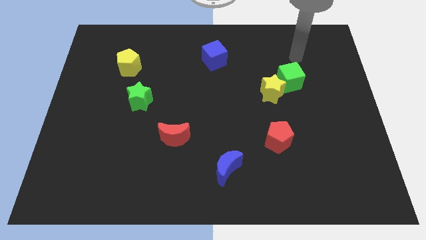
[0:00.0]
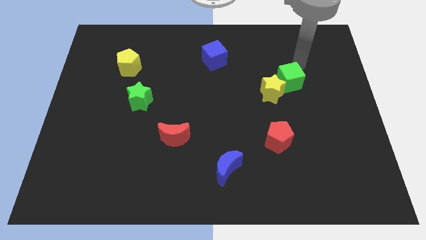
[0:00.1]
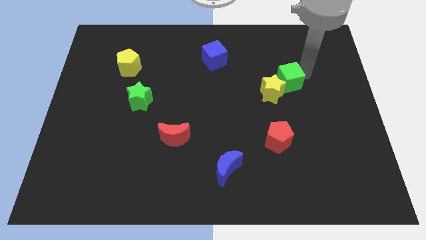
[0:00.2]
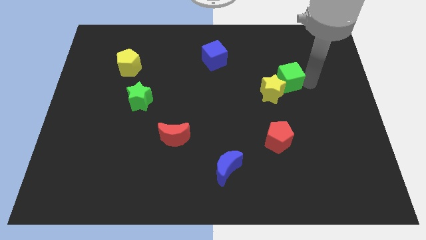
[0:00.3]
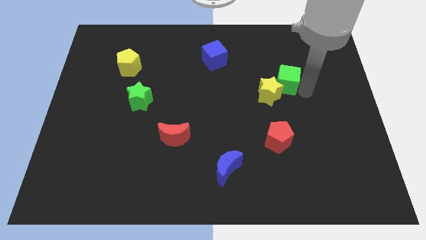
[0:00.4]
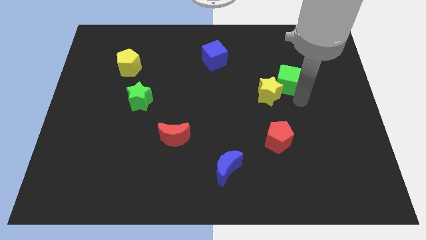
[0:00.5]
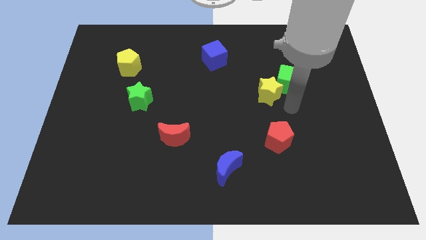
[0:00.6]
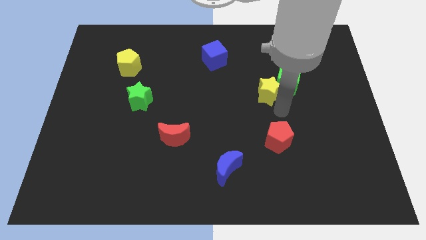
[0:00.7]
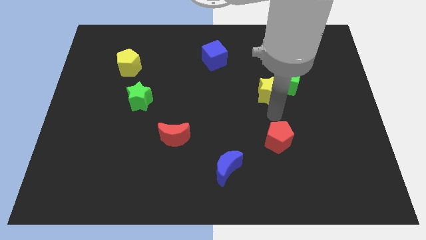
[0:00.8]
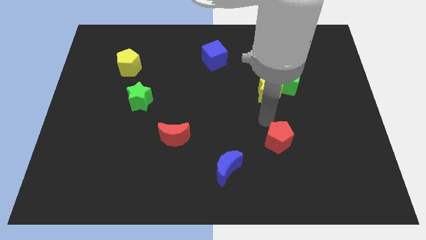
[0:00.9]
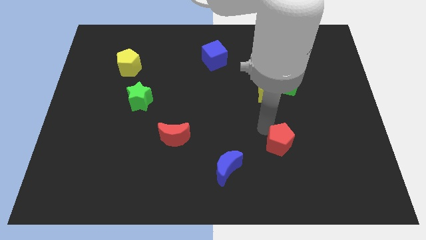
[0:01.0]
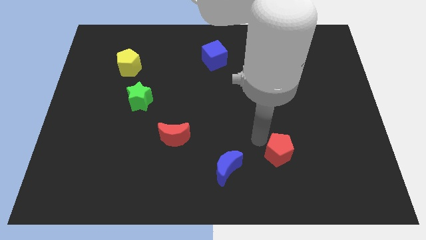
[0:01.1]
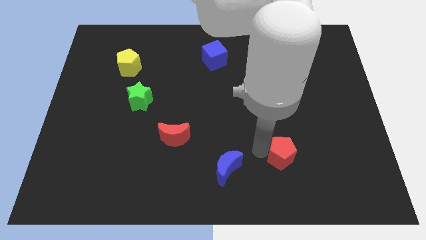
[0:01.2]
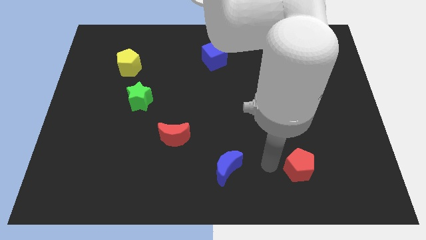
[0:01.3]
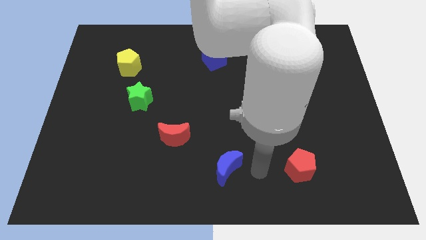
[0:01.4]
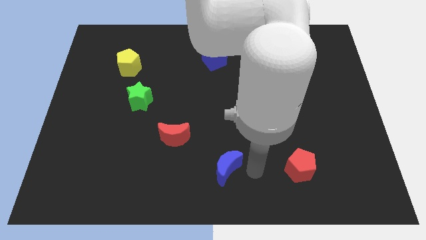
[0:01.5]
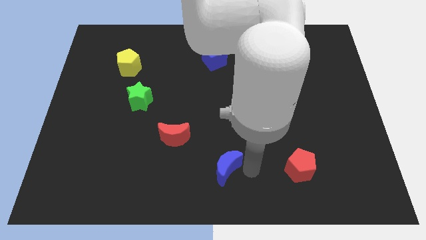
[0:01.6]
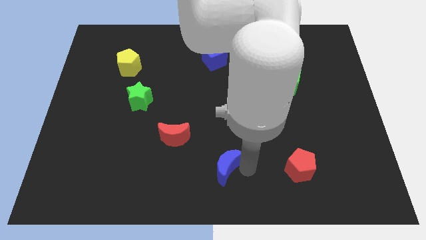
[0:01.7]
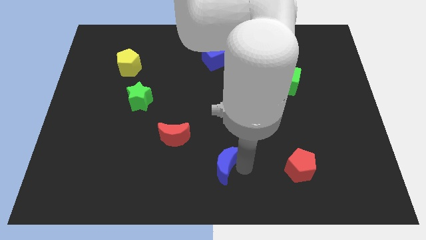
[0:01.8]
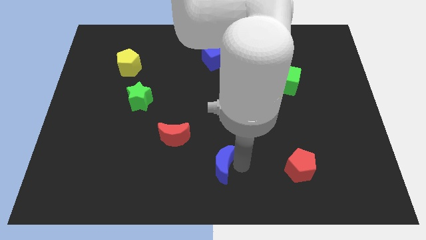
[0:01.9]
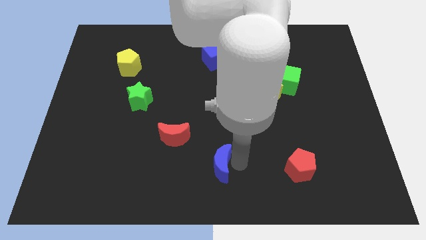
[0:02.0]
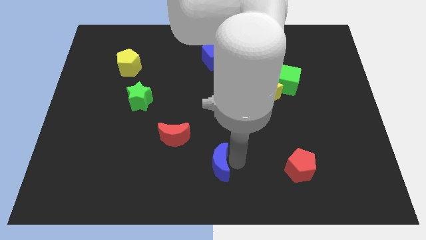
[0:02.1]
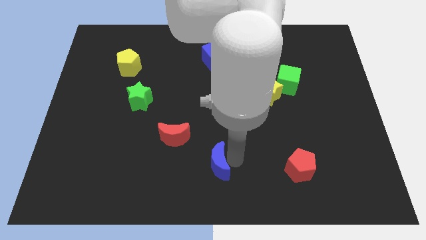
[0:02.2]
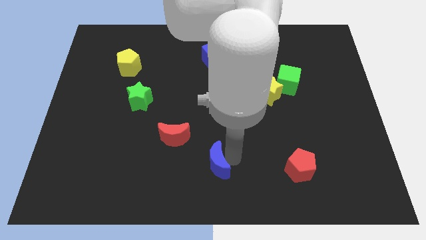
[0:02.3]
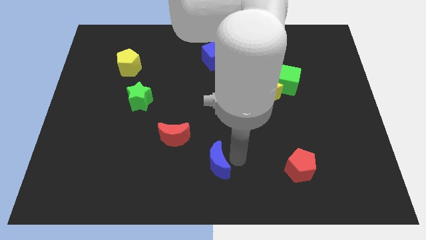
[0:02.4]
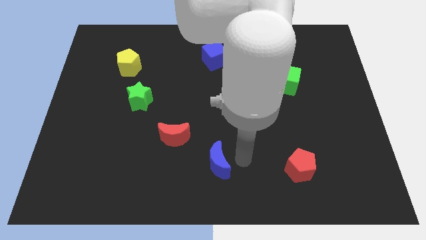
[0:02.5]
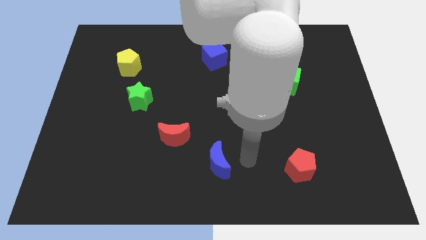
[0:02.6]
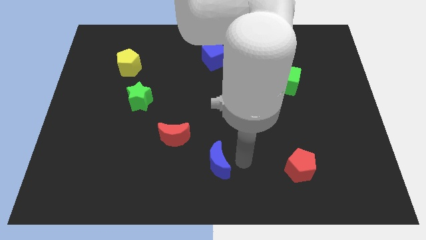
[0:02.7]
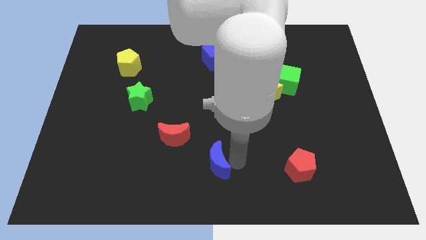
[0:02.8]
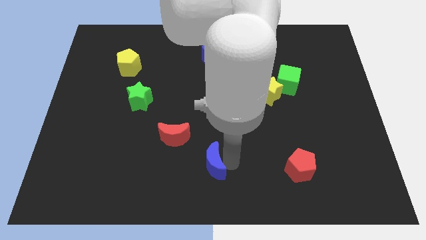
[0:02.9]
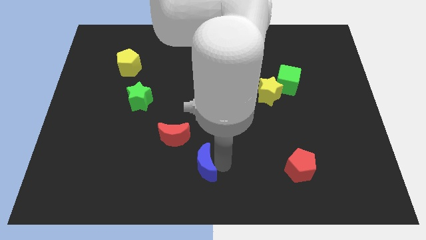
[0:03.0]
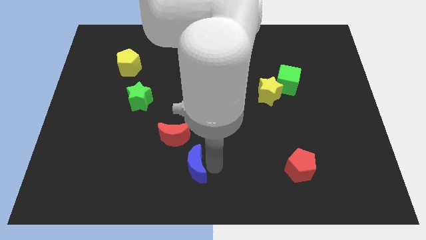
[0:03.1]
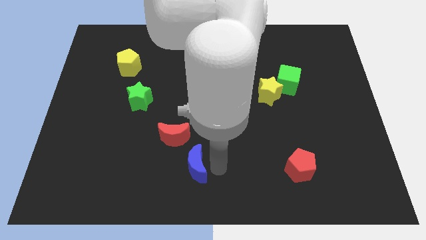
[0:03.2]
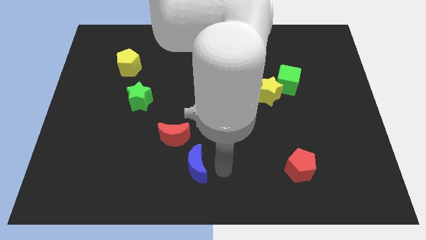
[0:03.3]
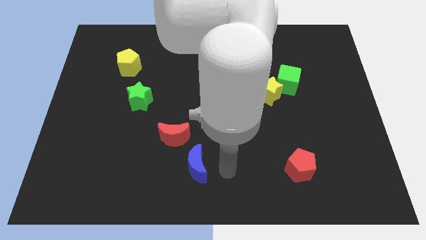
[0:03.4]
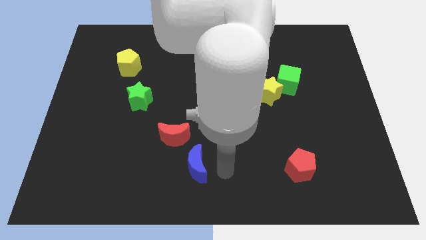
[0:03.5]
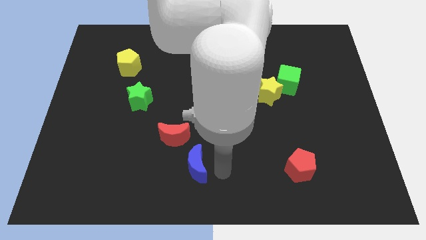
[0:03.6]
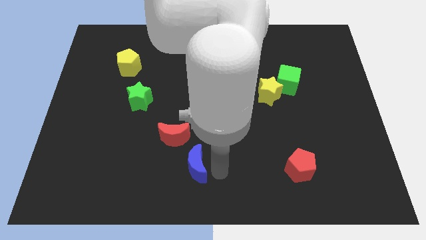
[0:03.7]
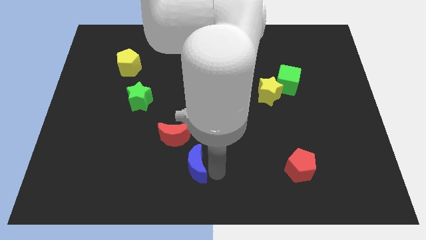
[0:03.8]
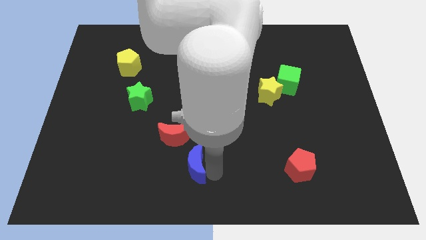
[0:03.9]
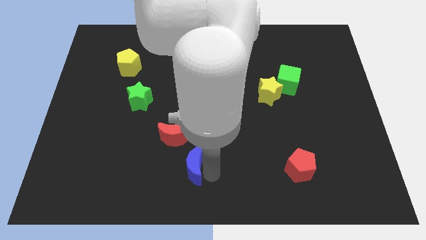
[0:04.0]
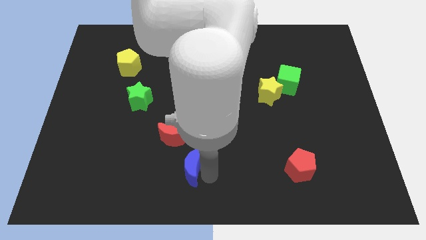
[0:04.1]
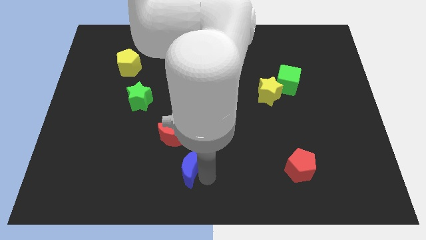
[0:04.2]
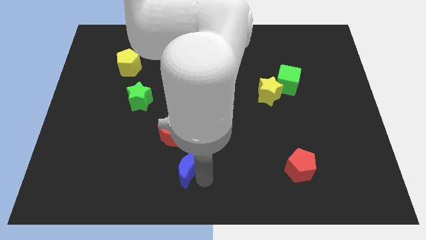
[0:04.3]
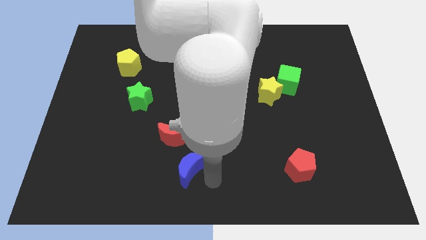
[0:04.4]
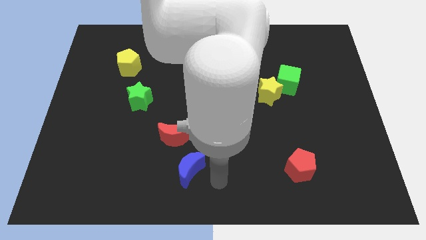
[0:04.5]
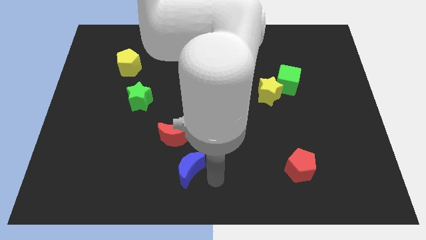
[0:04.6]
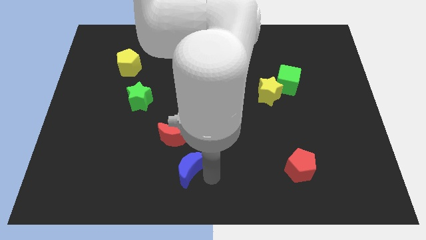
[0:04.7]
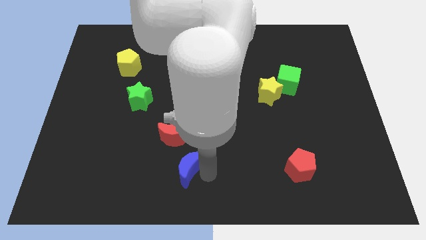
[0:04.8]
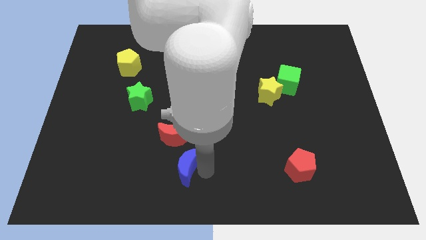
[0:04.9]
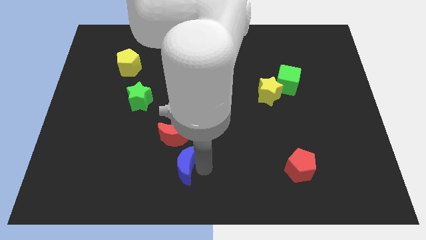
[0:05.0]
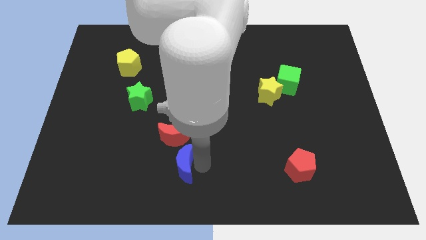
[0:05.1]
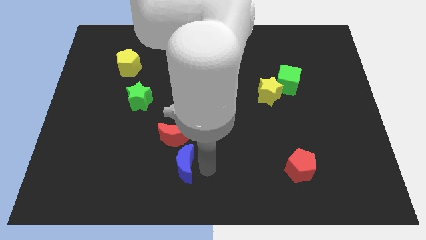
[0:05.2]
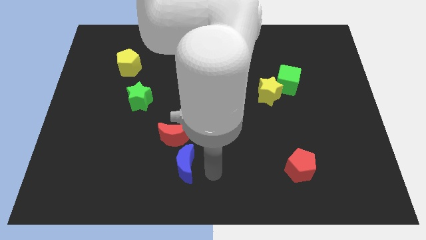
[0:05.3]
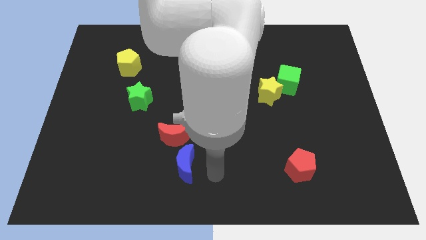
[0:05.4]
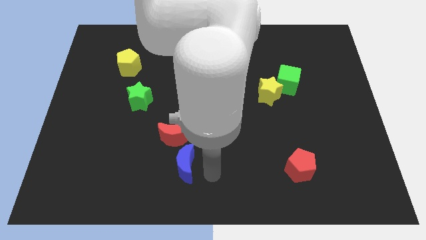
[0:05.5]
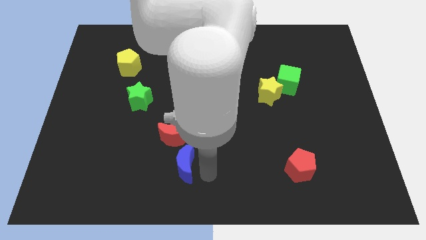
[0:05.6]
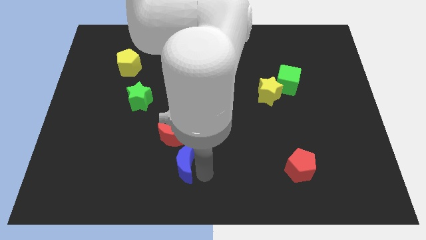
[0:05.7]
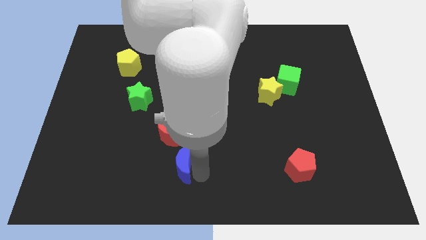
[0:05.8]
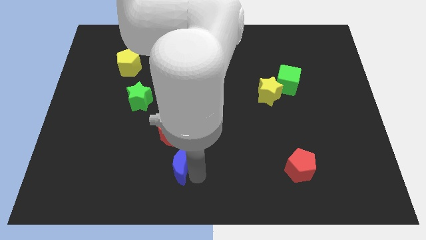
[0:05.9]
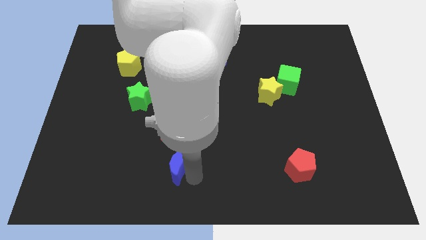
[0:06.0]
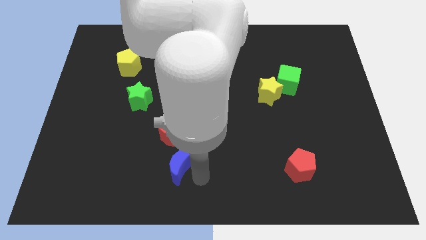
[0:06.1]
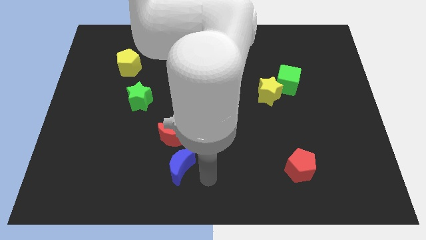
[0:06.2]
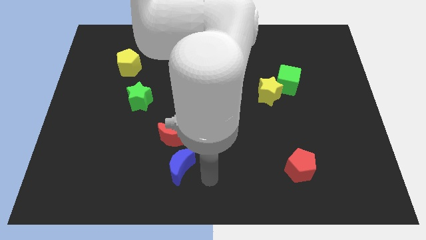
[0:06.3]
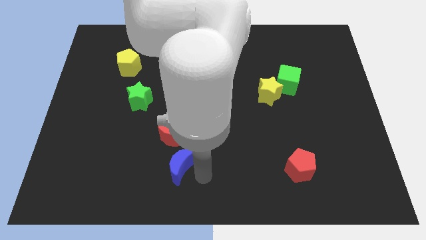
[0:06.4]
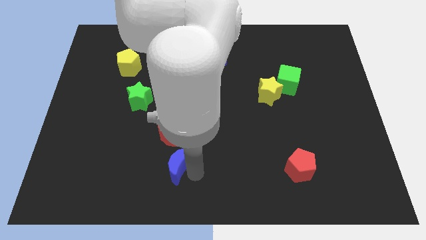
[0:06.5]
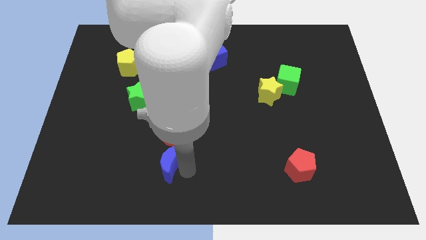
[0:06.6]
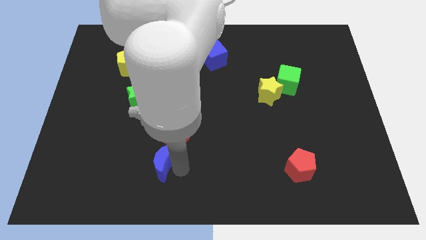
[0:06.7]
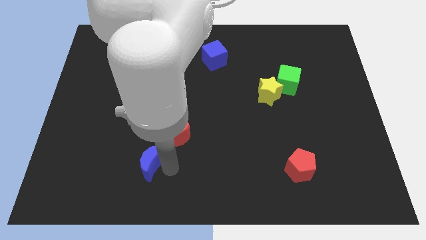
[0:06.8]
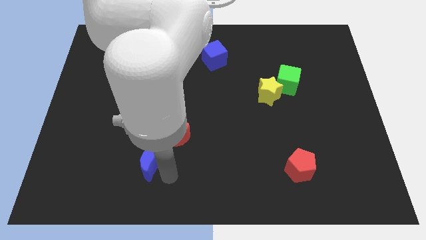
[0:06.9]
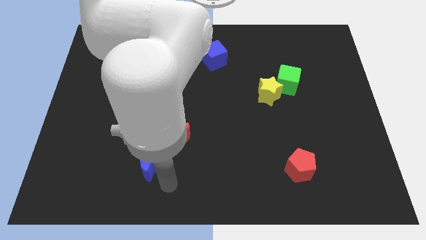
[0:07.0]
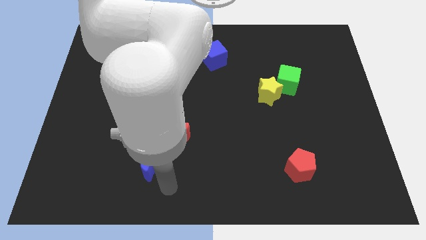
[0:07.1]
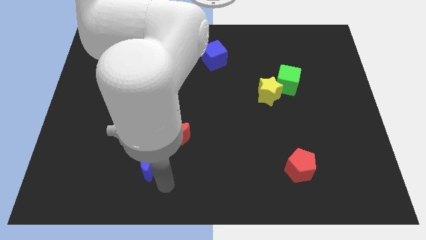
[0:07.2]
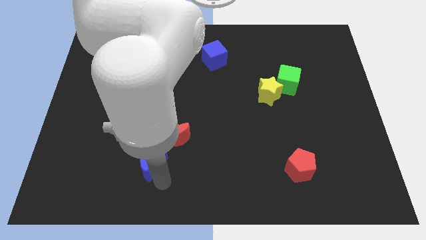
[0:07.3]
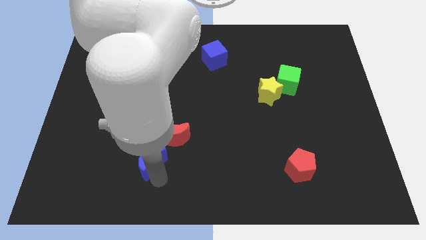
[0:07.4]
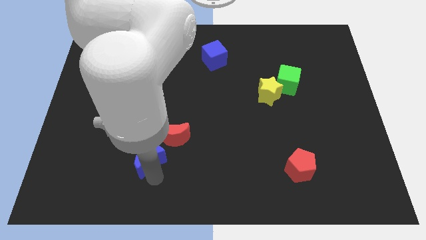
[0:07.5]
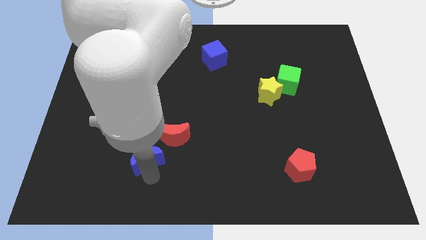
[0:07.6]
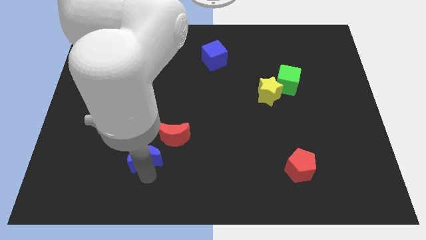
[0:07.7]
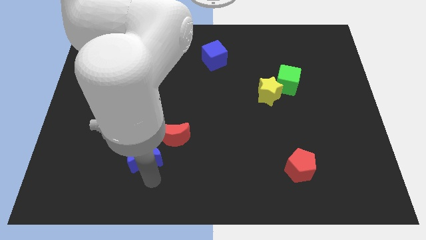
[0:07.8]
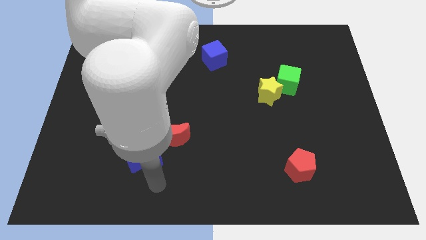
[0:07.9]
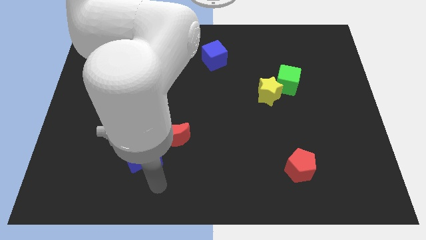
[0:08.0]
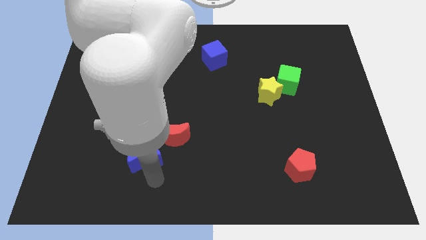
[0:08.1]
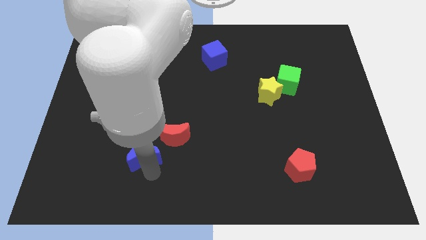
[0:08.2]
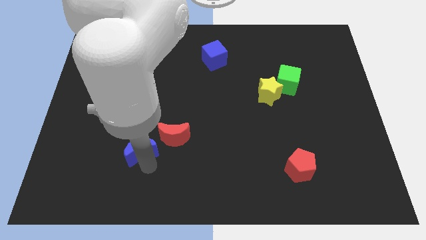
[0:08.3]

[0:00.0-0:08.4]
slide the blue moon below the green star
